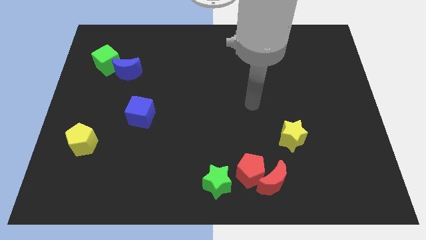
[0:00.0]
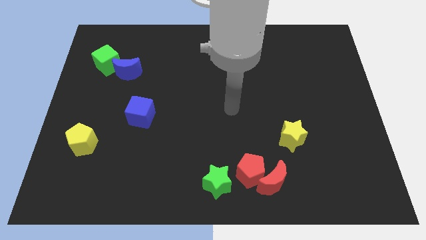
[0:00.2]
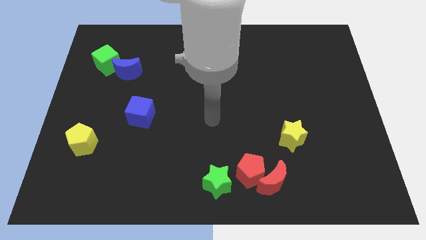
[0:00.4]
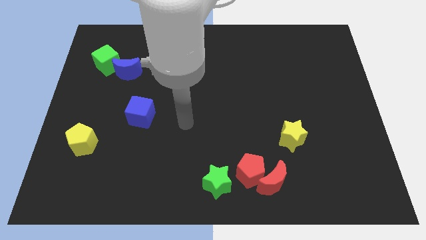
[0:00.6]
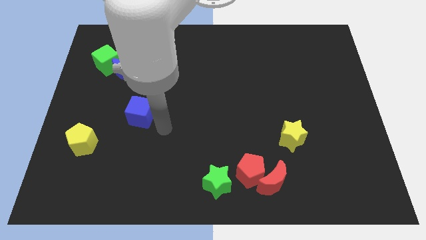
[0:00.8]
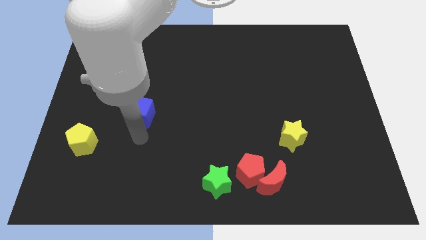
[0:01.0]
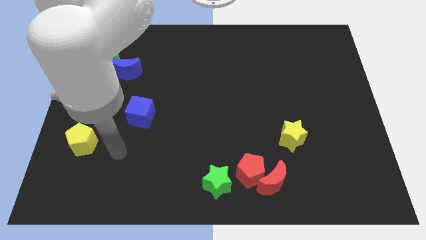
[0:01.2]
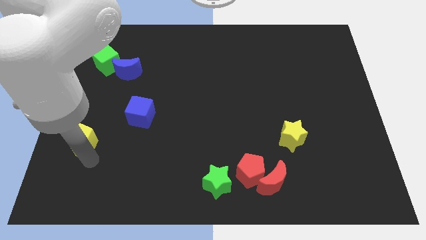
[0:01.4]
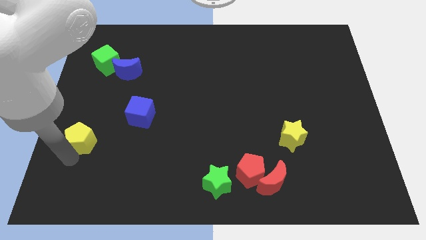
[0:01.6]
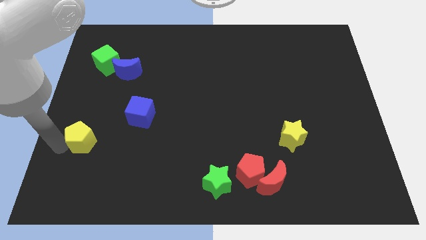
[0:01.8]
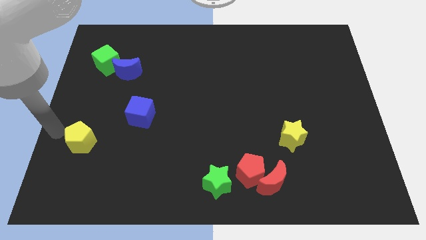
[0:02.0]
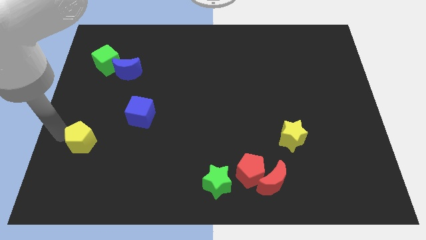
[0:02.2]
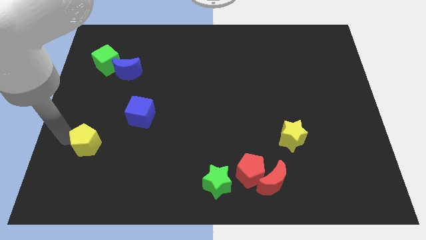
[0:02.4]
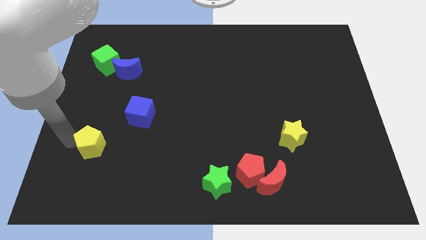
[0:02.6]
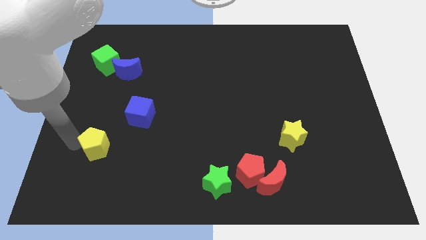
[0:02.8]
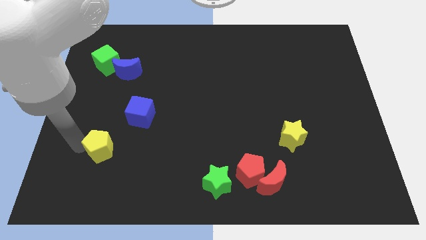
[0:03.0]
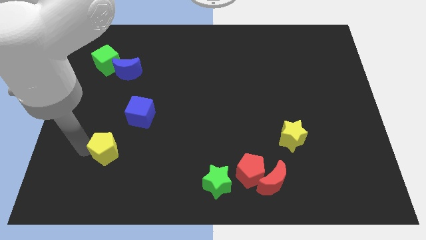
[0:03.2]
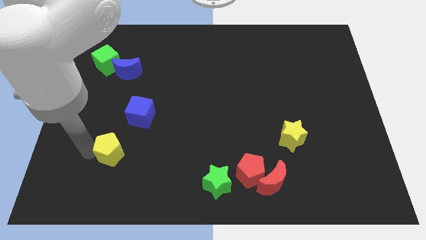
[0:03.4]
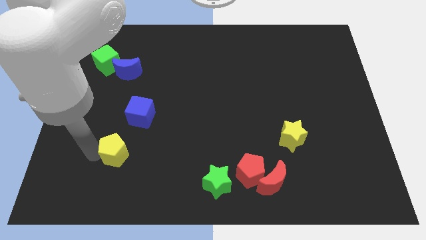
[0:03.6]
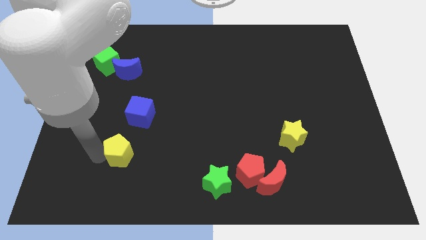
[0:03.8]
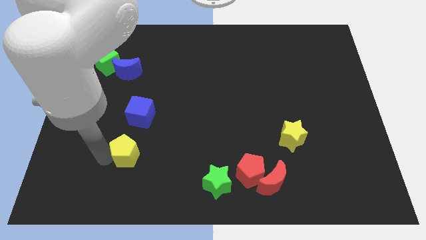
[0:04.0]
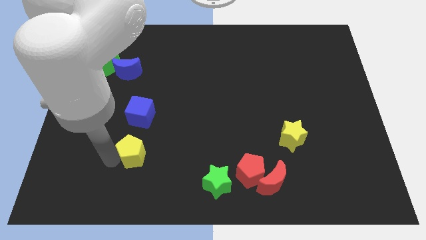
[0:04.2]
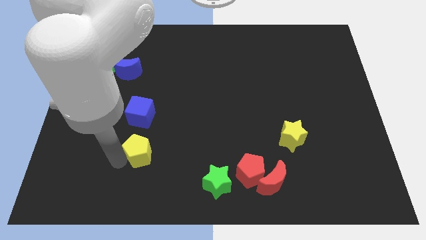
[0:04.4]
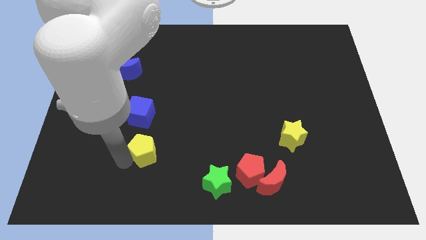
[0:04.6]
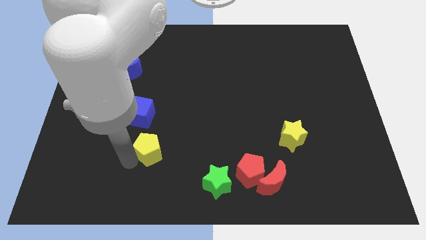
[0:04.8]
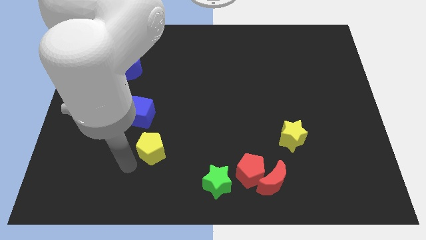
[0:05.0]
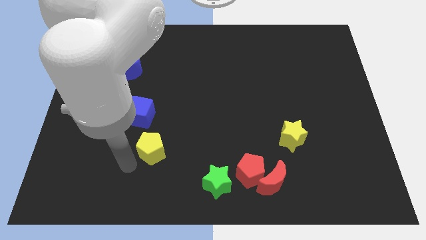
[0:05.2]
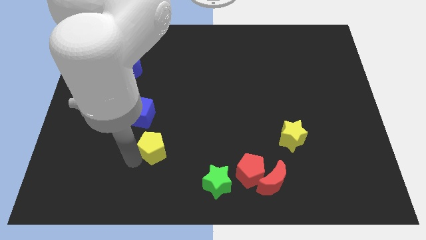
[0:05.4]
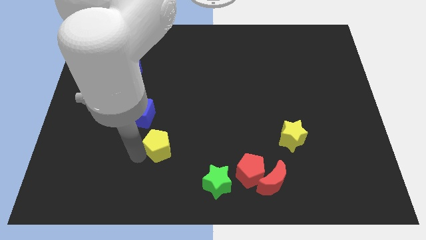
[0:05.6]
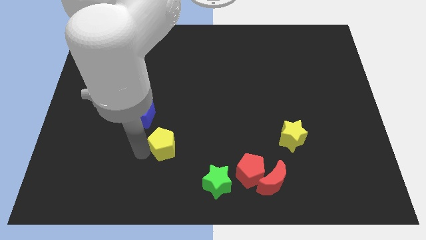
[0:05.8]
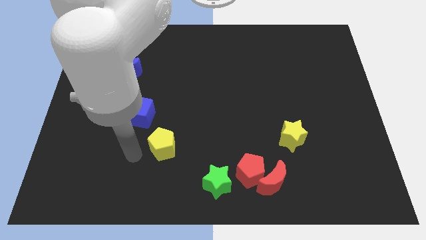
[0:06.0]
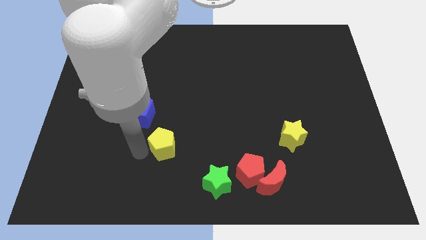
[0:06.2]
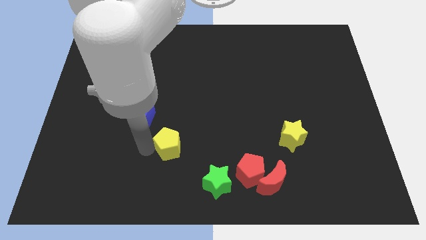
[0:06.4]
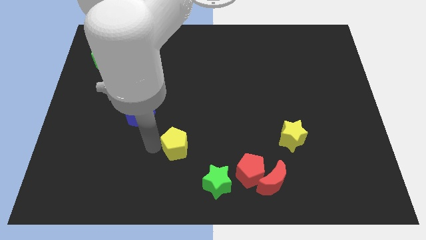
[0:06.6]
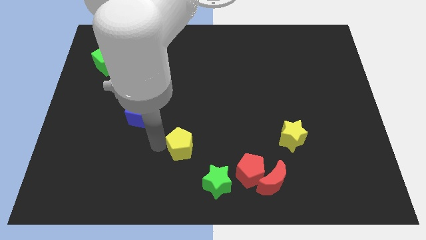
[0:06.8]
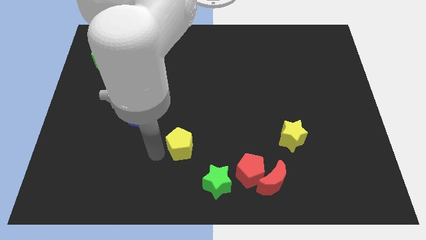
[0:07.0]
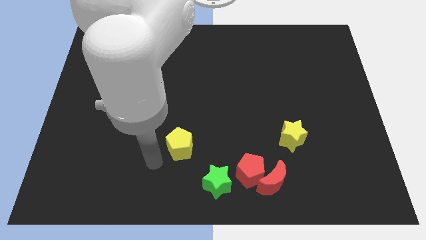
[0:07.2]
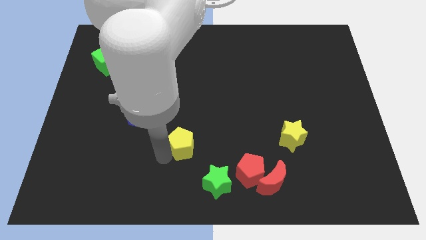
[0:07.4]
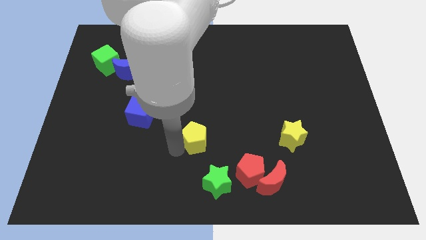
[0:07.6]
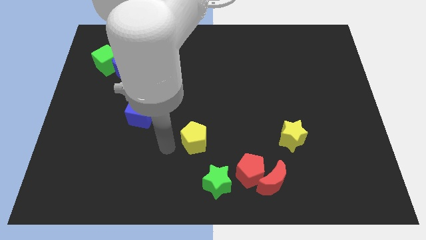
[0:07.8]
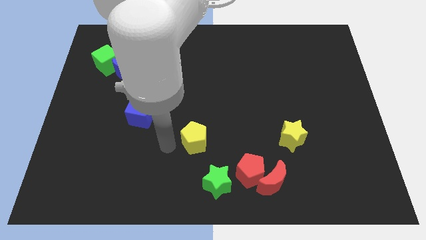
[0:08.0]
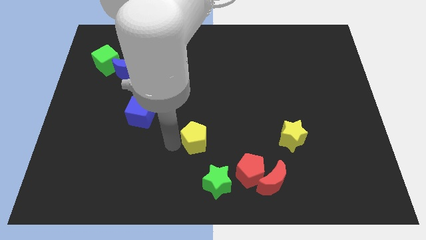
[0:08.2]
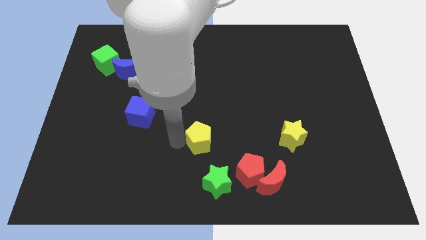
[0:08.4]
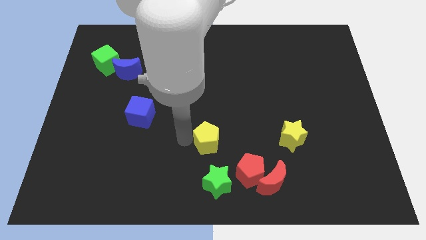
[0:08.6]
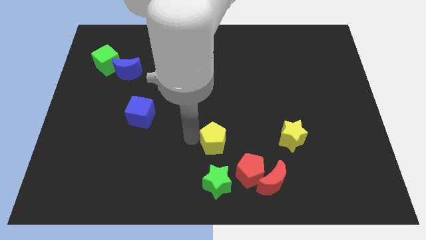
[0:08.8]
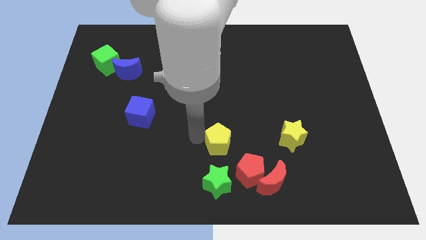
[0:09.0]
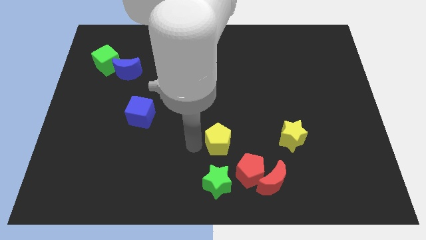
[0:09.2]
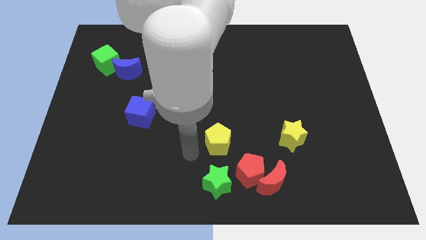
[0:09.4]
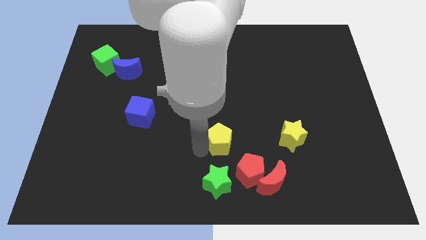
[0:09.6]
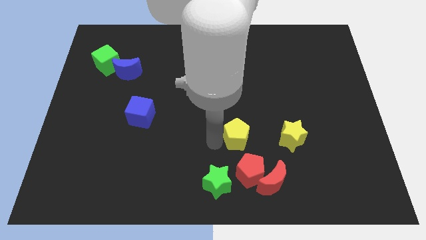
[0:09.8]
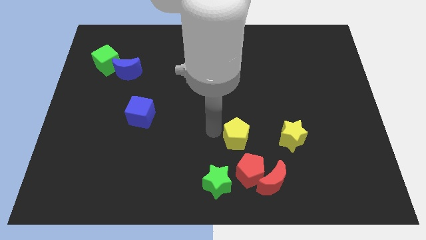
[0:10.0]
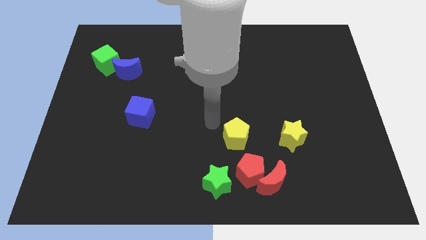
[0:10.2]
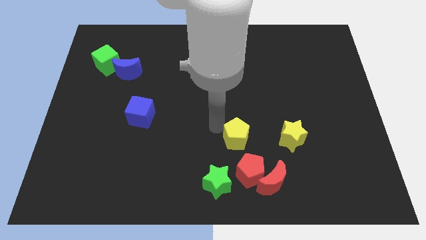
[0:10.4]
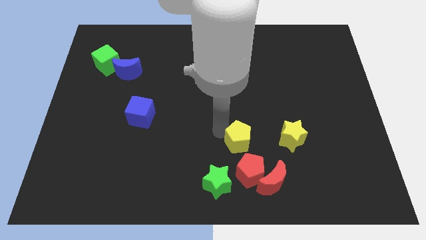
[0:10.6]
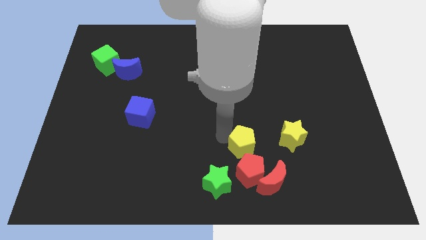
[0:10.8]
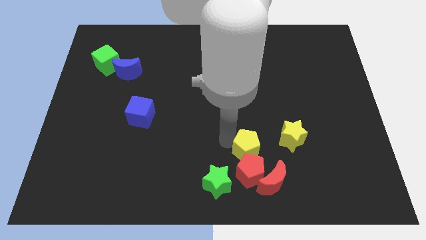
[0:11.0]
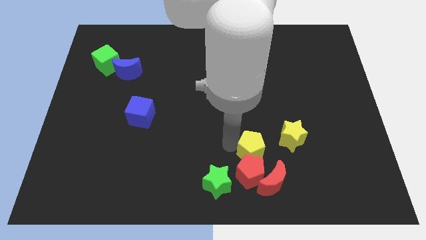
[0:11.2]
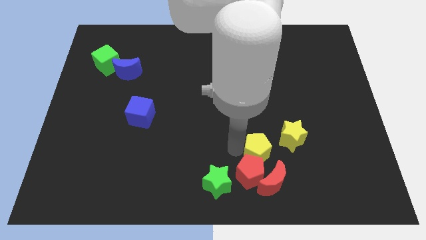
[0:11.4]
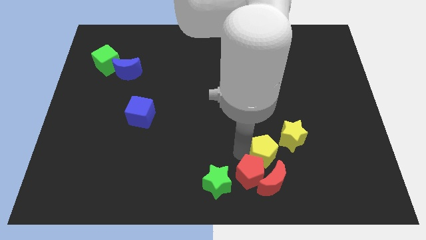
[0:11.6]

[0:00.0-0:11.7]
move the yellow pentagon just right of the red pentagon

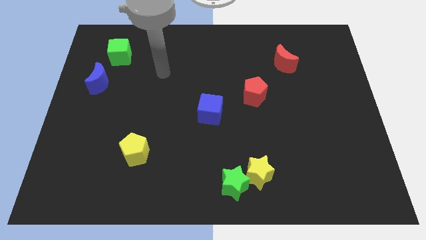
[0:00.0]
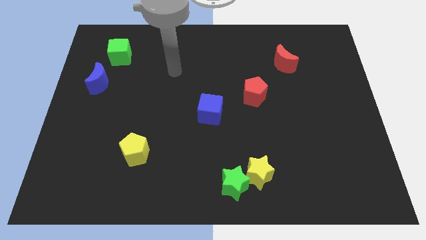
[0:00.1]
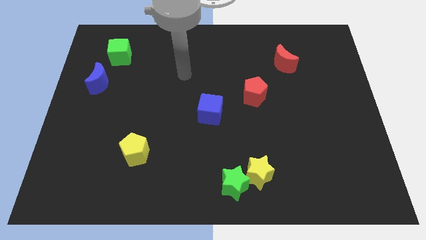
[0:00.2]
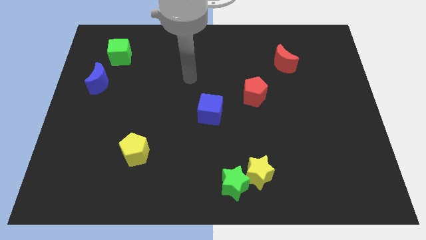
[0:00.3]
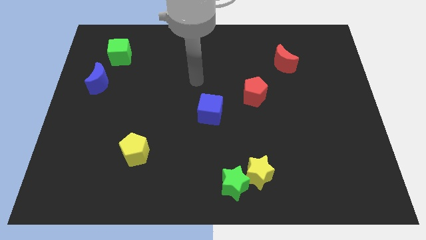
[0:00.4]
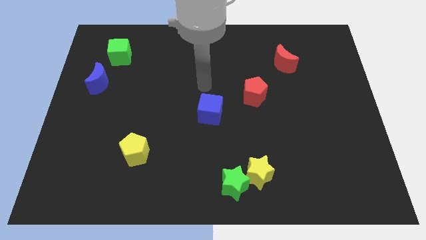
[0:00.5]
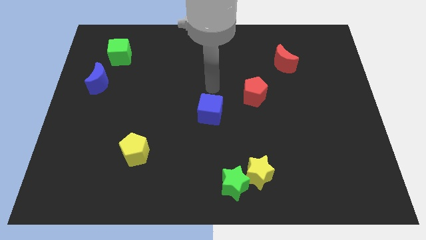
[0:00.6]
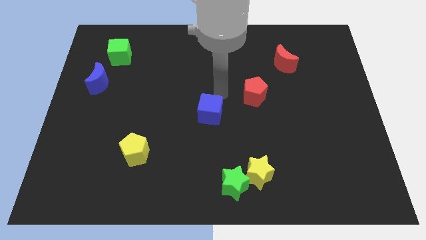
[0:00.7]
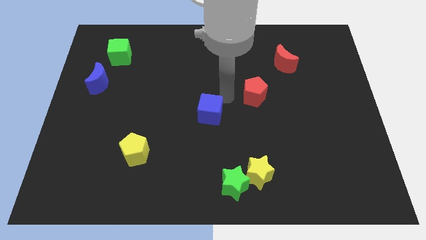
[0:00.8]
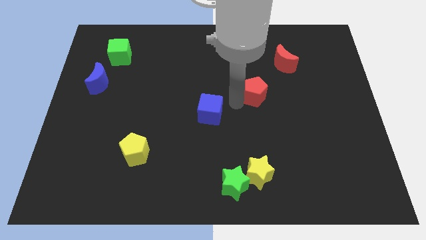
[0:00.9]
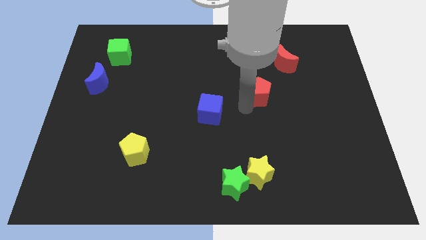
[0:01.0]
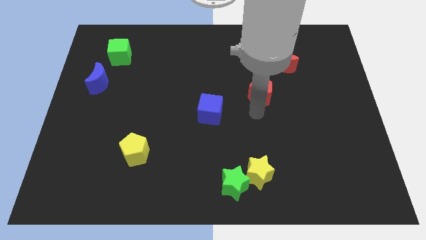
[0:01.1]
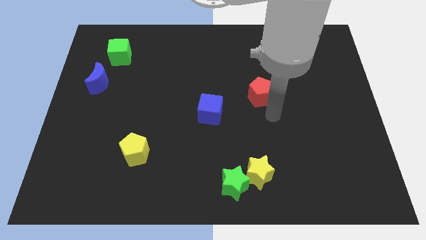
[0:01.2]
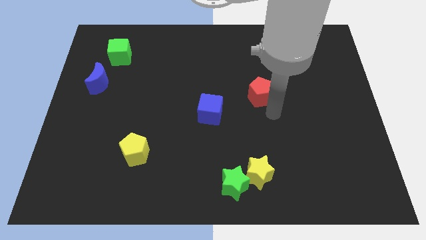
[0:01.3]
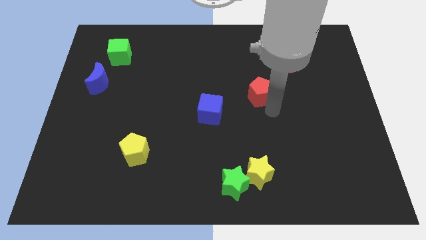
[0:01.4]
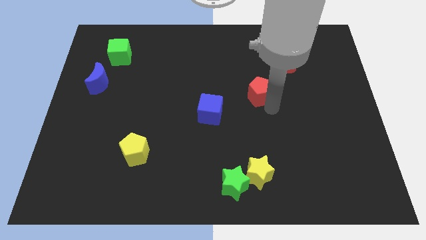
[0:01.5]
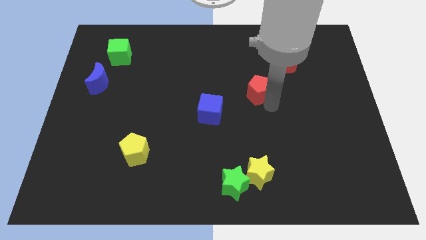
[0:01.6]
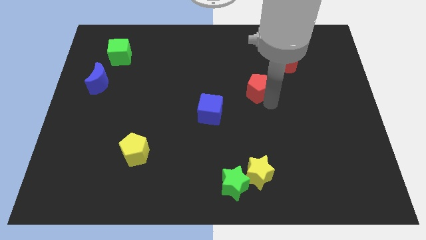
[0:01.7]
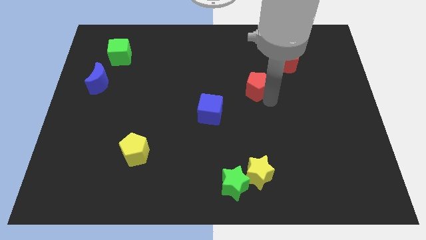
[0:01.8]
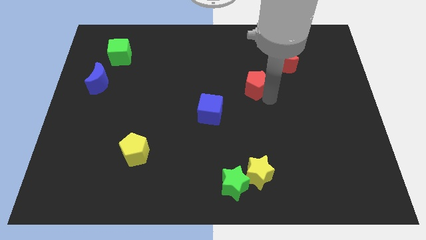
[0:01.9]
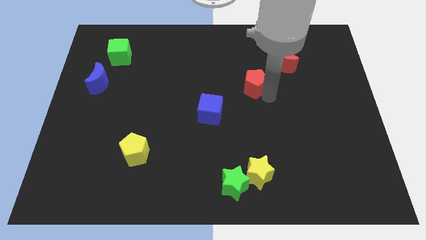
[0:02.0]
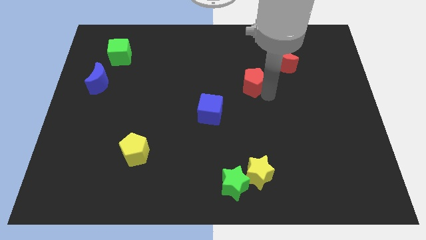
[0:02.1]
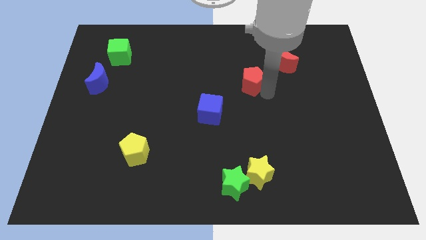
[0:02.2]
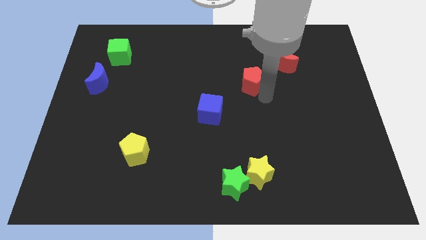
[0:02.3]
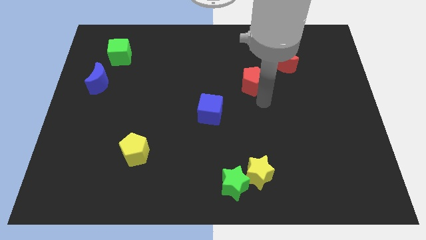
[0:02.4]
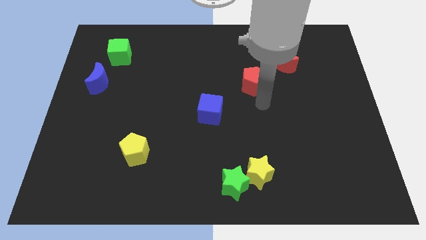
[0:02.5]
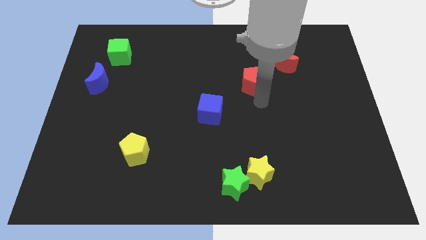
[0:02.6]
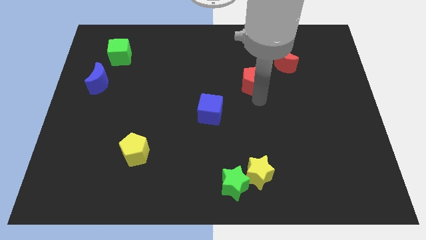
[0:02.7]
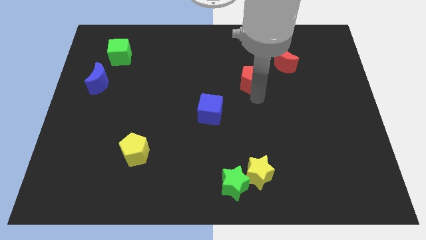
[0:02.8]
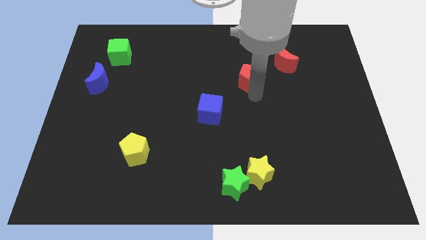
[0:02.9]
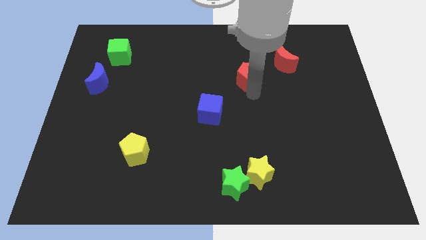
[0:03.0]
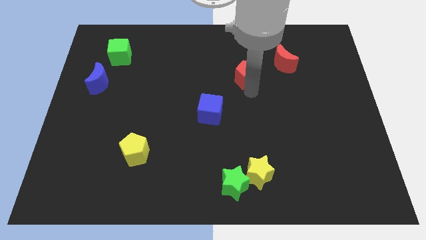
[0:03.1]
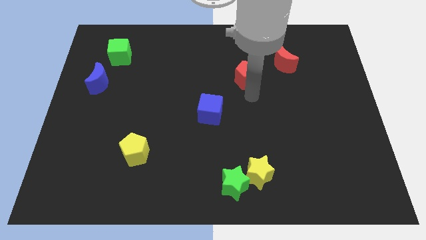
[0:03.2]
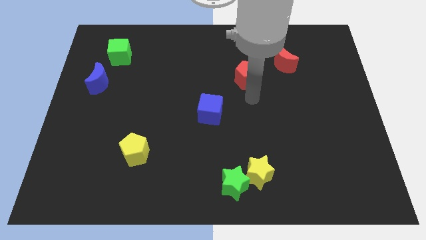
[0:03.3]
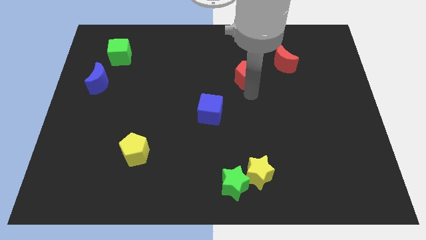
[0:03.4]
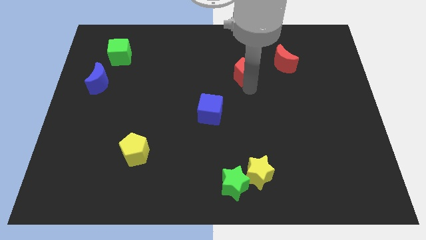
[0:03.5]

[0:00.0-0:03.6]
put the red pentagon to the left of the red moon
